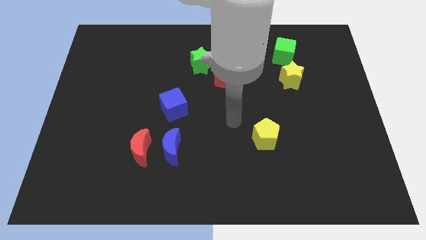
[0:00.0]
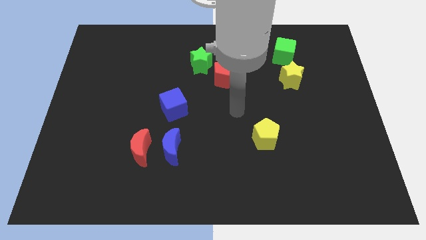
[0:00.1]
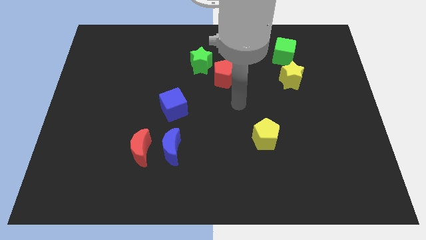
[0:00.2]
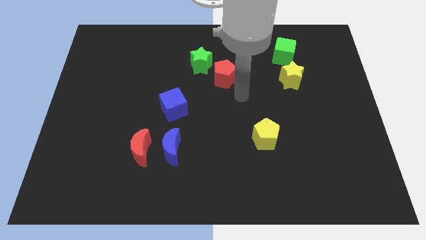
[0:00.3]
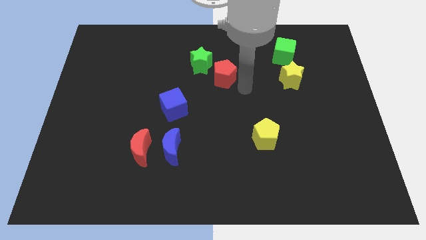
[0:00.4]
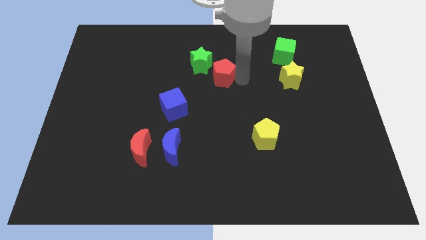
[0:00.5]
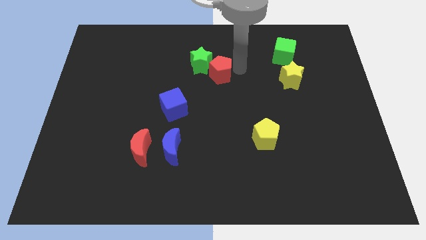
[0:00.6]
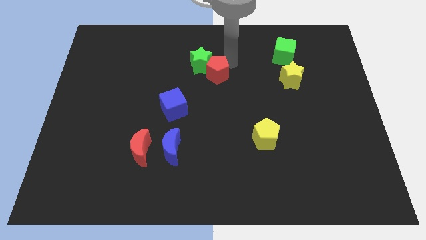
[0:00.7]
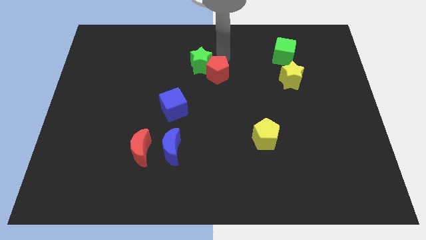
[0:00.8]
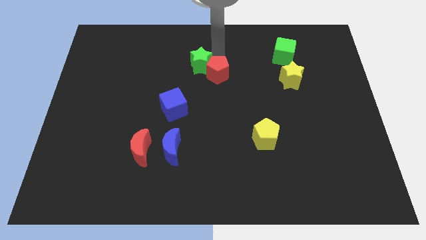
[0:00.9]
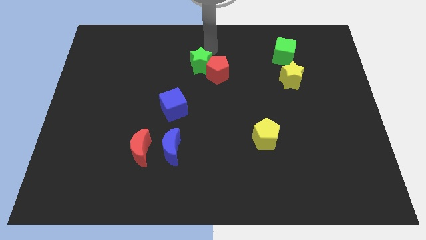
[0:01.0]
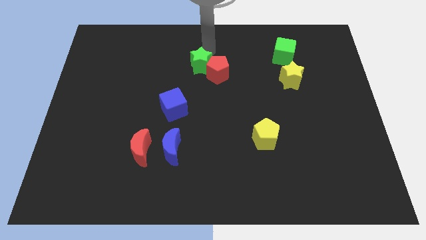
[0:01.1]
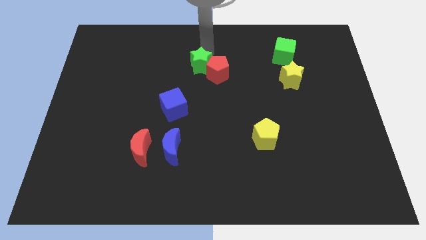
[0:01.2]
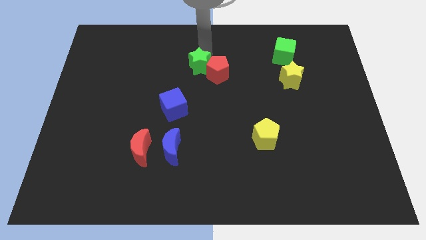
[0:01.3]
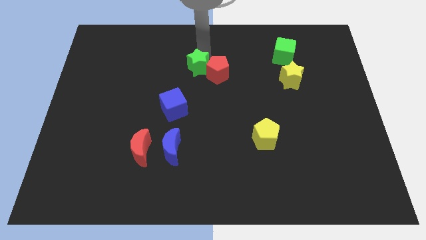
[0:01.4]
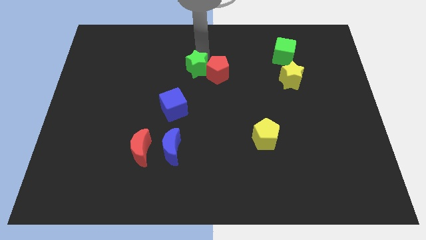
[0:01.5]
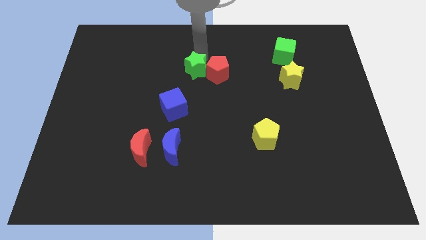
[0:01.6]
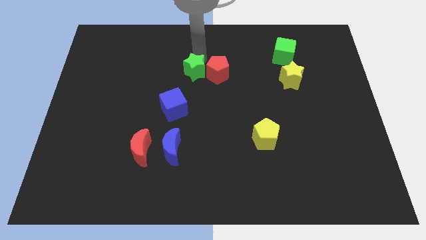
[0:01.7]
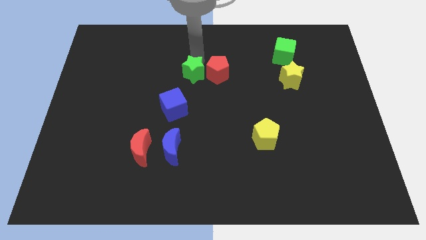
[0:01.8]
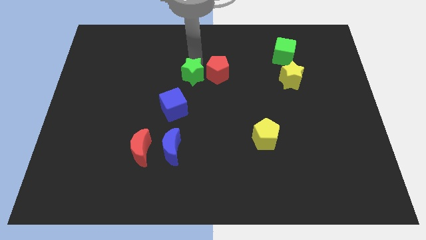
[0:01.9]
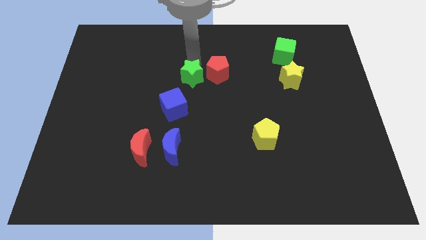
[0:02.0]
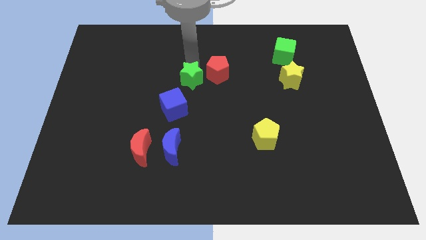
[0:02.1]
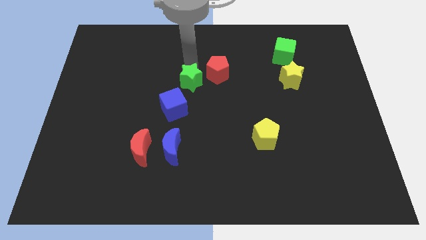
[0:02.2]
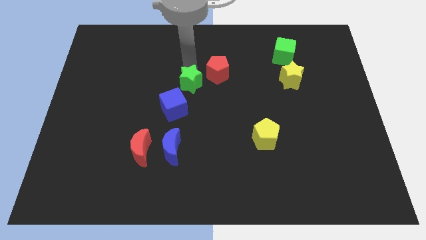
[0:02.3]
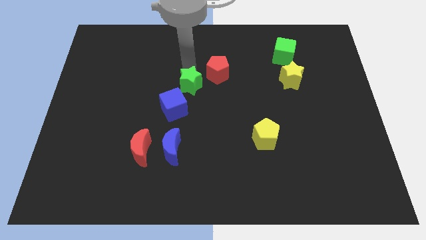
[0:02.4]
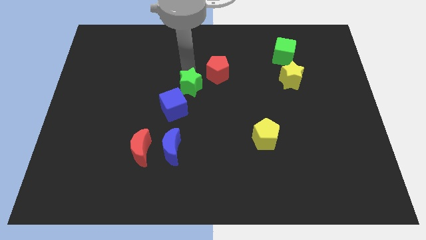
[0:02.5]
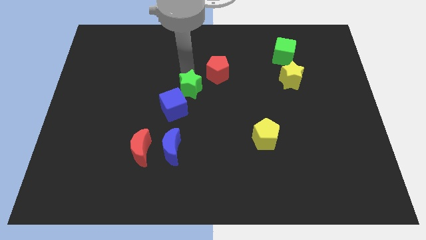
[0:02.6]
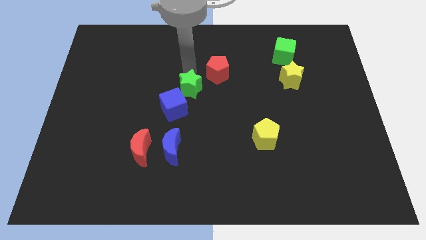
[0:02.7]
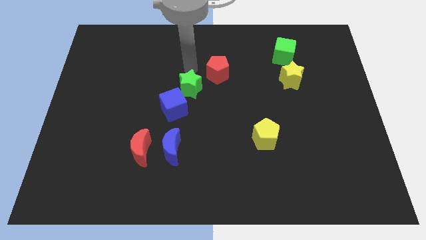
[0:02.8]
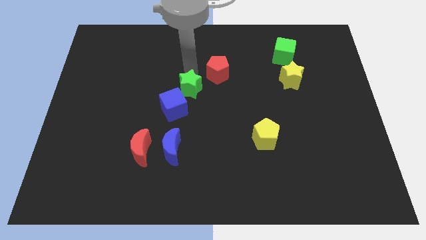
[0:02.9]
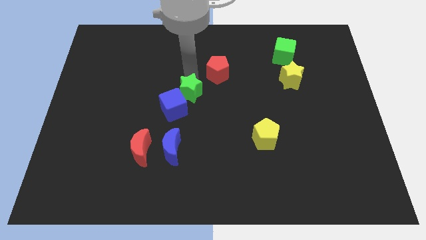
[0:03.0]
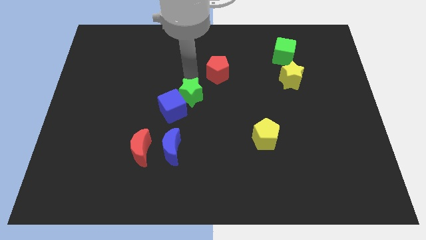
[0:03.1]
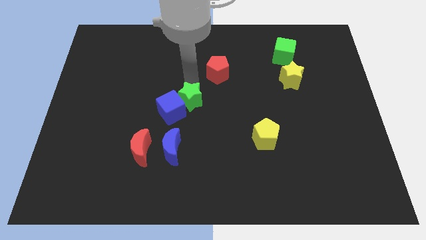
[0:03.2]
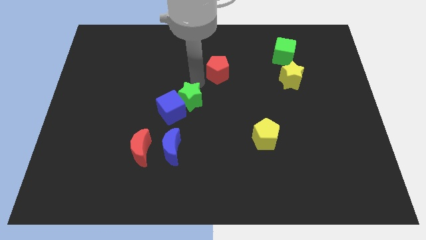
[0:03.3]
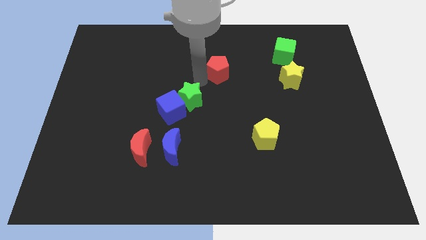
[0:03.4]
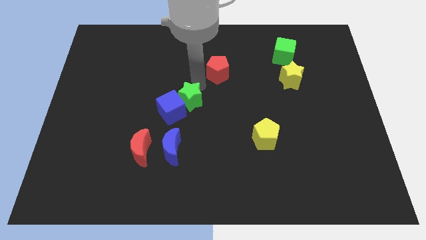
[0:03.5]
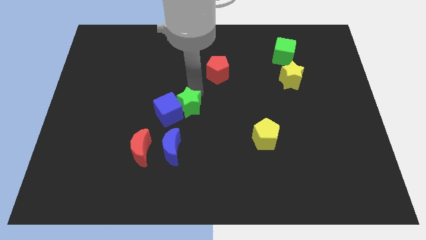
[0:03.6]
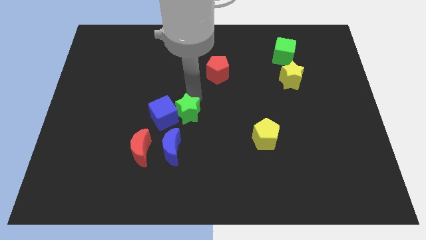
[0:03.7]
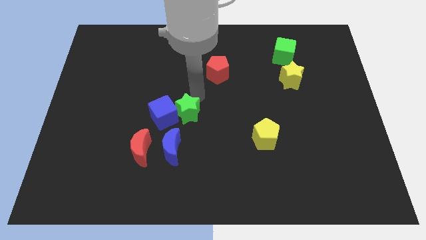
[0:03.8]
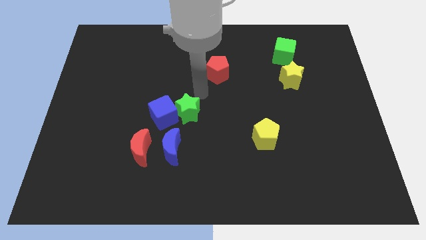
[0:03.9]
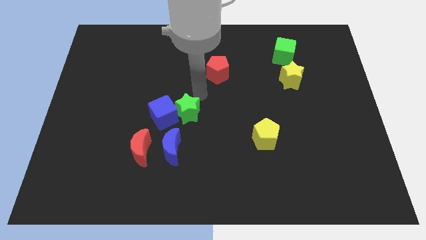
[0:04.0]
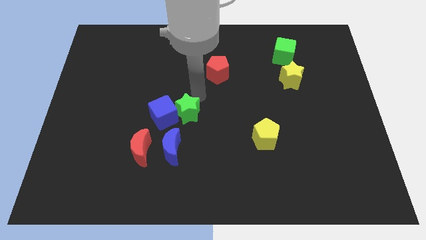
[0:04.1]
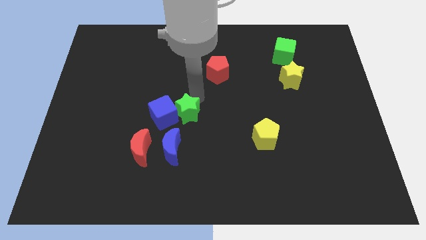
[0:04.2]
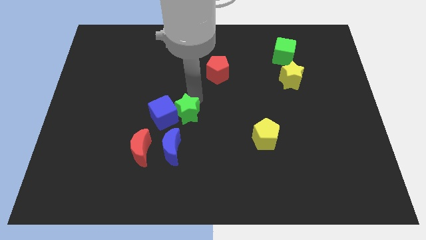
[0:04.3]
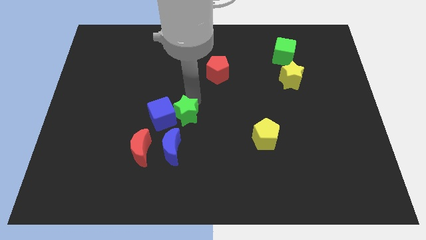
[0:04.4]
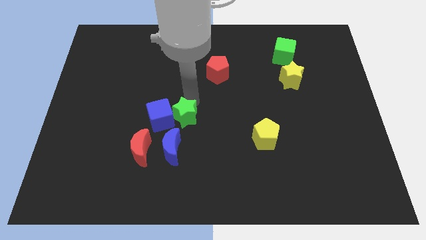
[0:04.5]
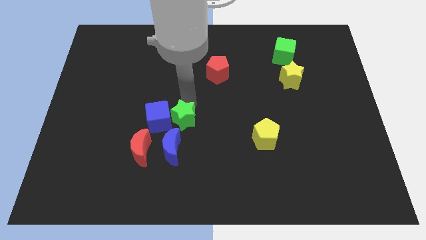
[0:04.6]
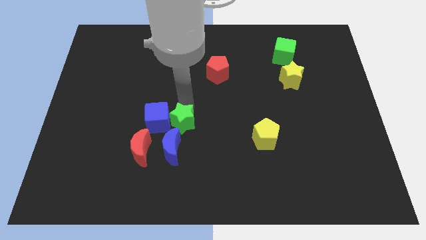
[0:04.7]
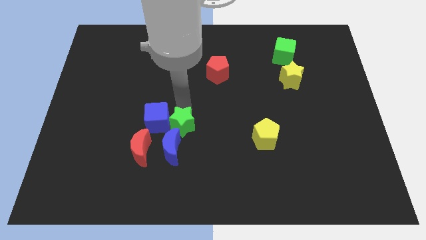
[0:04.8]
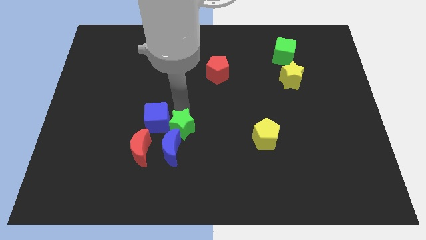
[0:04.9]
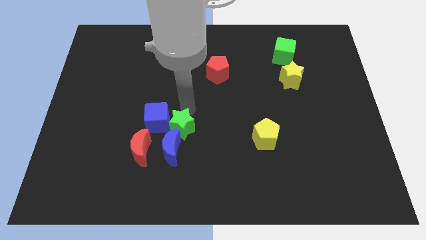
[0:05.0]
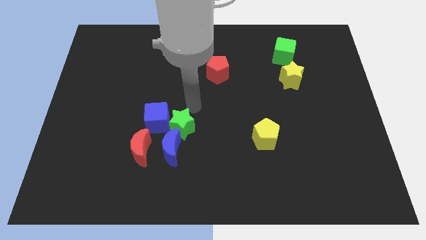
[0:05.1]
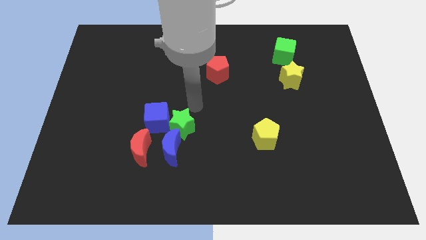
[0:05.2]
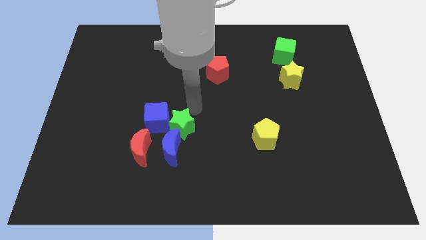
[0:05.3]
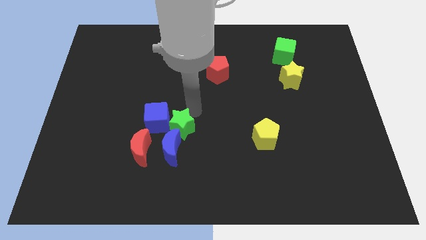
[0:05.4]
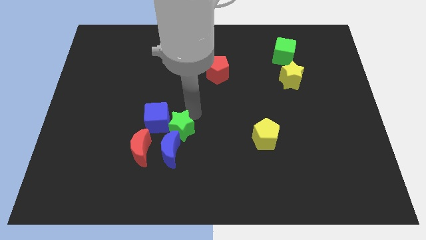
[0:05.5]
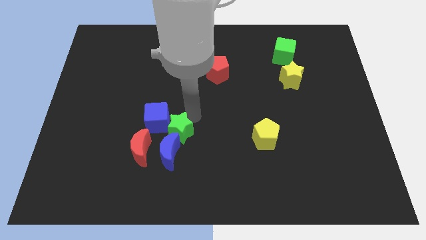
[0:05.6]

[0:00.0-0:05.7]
move the green star next to the blue moon
